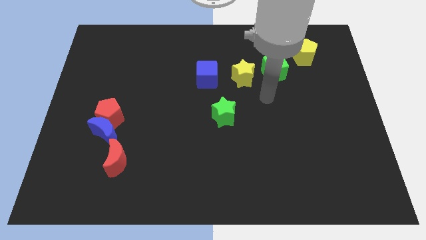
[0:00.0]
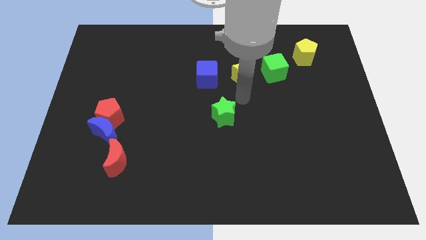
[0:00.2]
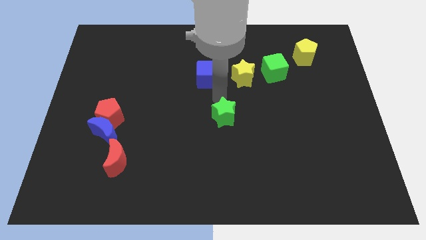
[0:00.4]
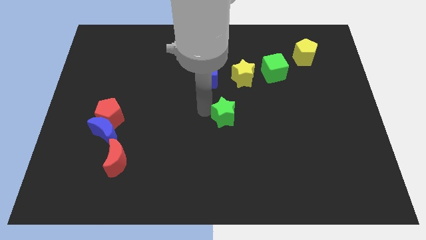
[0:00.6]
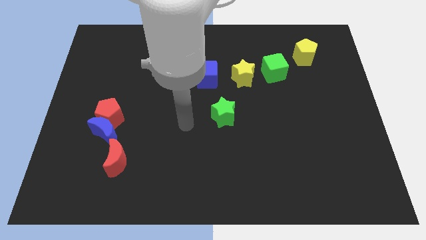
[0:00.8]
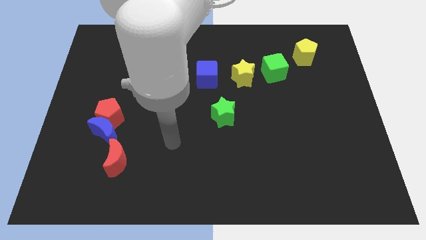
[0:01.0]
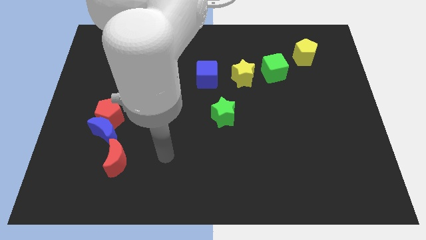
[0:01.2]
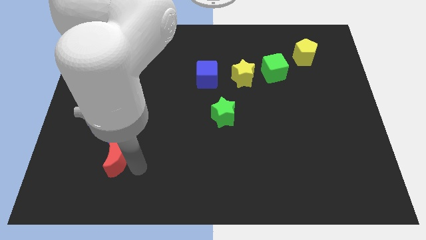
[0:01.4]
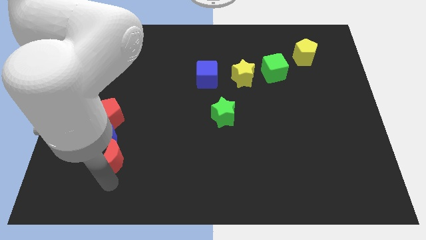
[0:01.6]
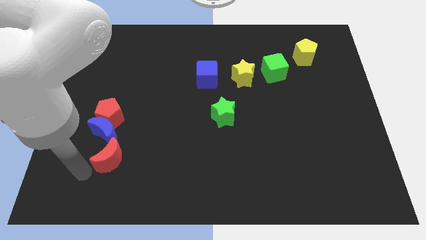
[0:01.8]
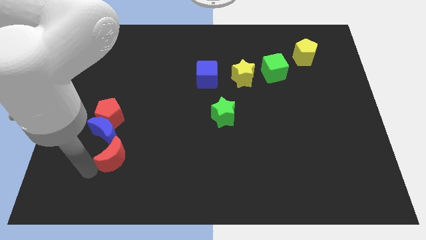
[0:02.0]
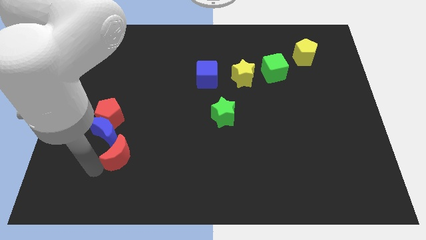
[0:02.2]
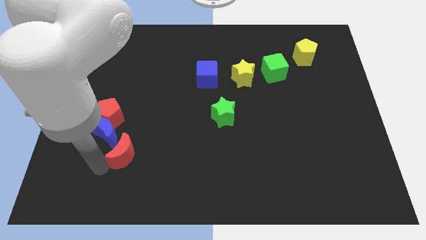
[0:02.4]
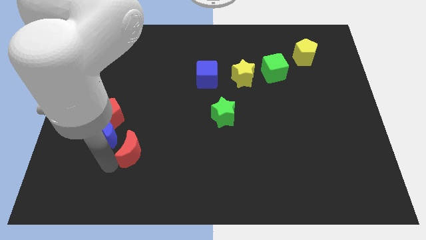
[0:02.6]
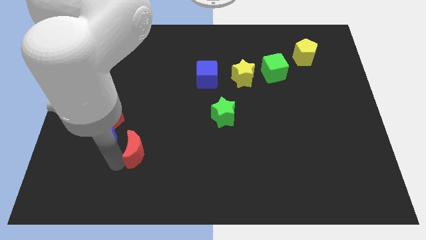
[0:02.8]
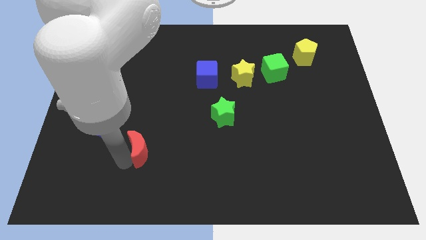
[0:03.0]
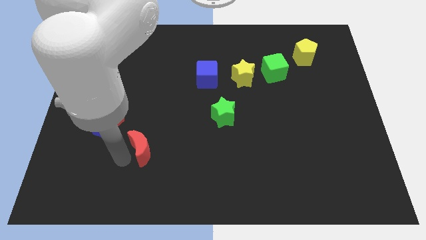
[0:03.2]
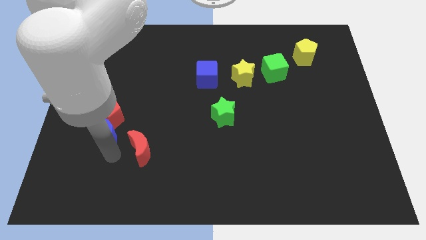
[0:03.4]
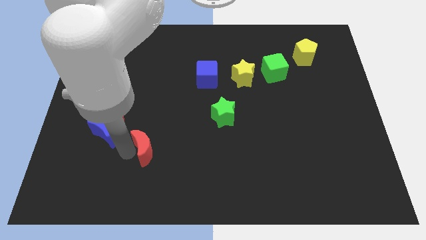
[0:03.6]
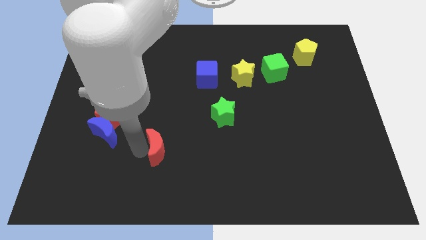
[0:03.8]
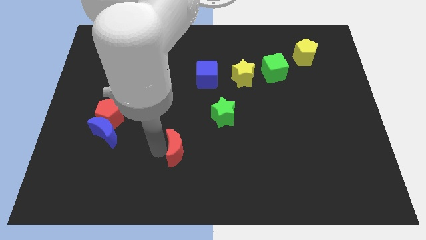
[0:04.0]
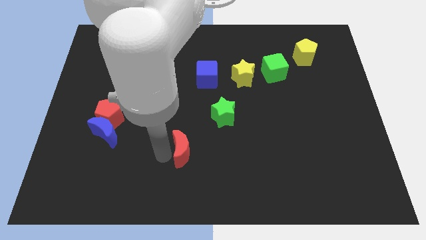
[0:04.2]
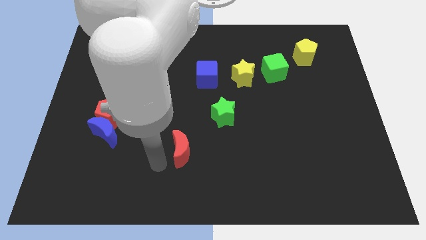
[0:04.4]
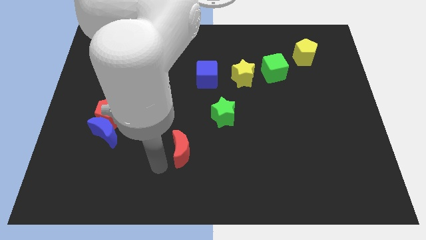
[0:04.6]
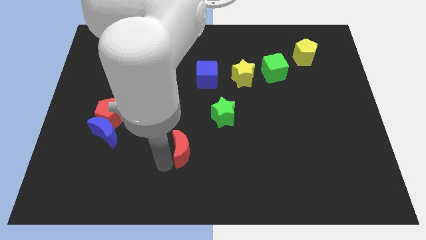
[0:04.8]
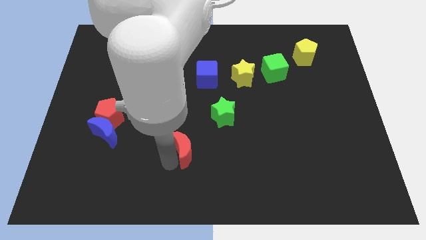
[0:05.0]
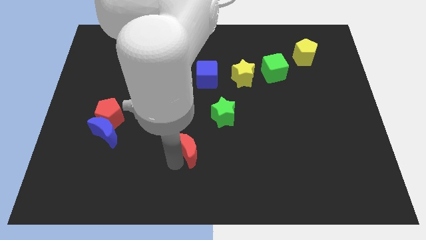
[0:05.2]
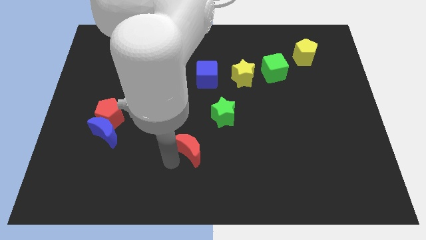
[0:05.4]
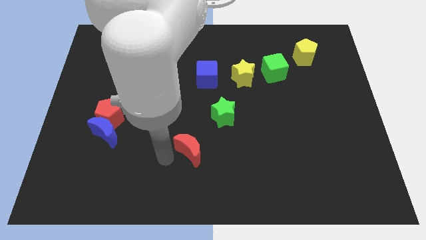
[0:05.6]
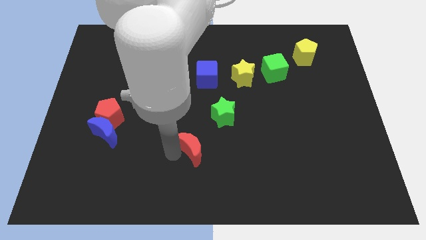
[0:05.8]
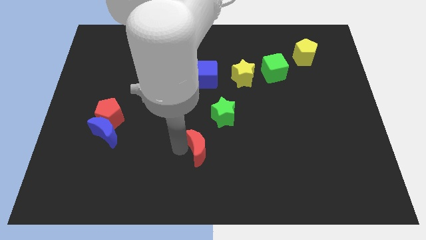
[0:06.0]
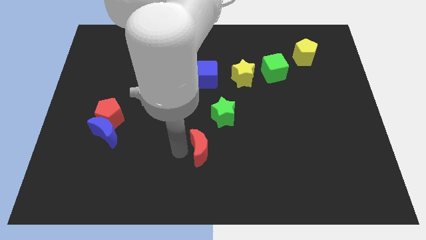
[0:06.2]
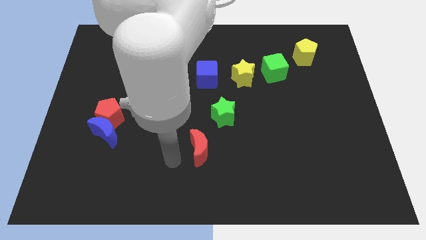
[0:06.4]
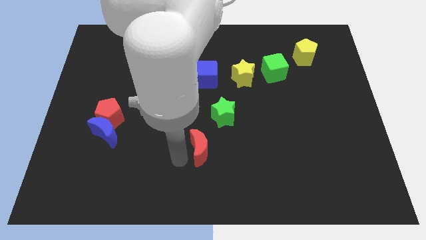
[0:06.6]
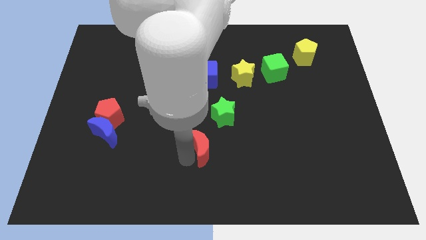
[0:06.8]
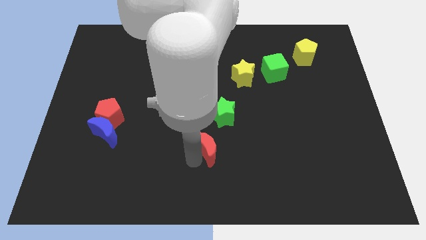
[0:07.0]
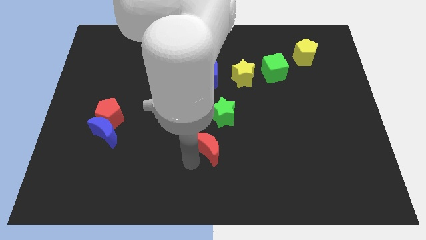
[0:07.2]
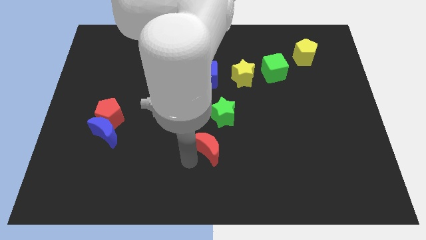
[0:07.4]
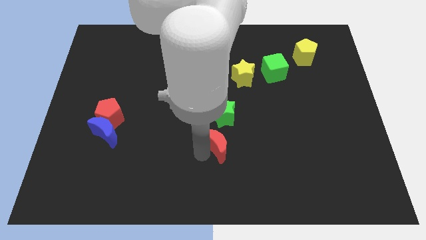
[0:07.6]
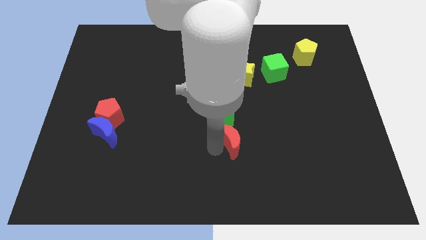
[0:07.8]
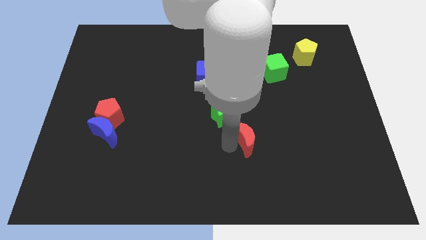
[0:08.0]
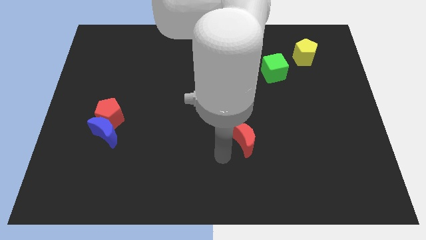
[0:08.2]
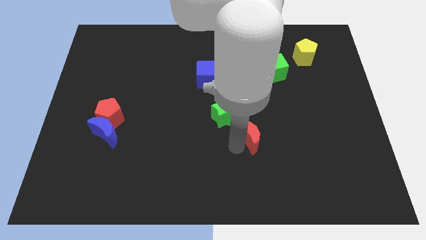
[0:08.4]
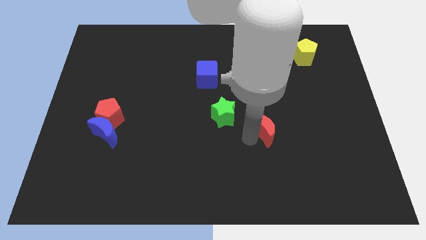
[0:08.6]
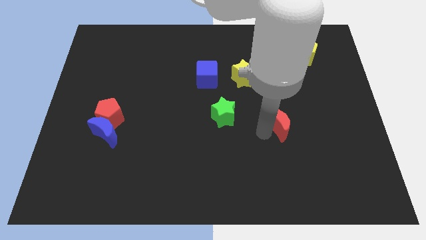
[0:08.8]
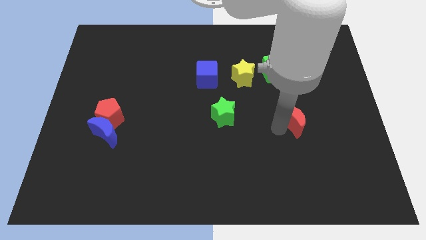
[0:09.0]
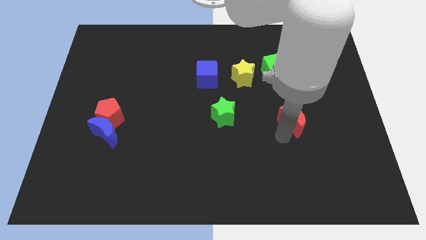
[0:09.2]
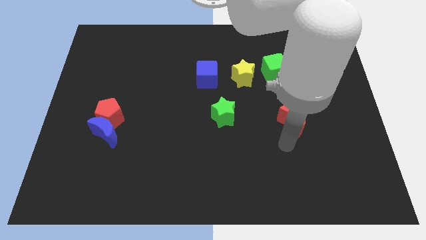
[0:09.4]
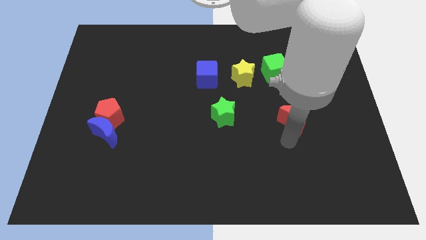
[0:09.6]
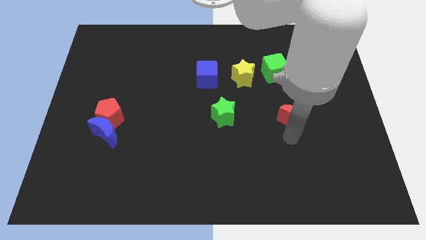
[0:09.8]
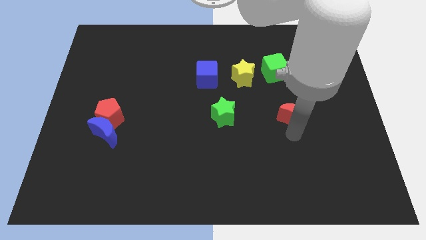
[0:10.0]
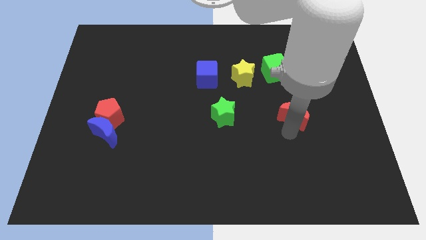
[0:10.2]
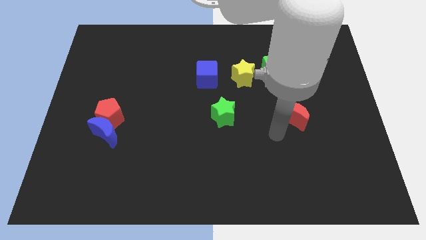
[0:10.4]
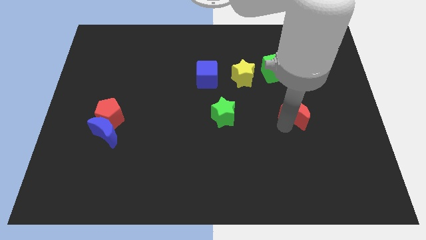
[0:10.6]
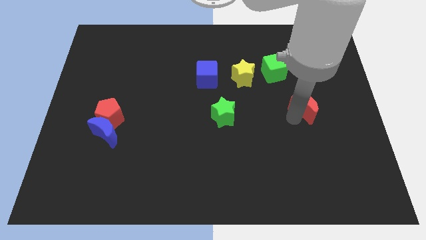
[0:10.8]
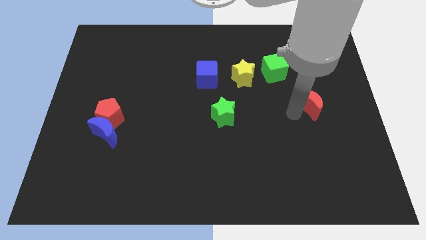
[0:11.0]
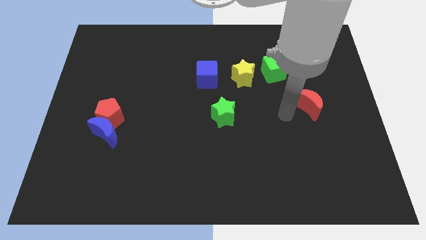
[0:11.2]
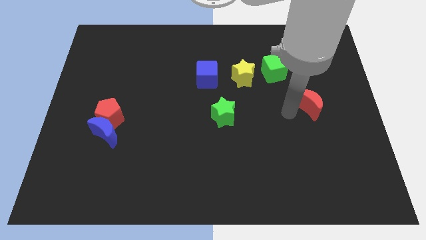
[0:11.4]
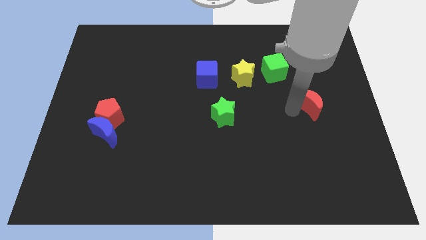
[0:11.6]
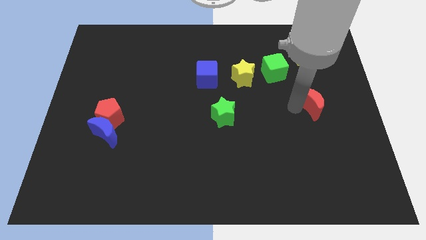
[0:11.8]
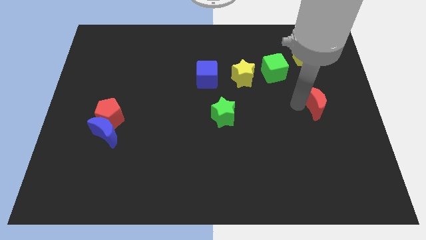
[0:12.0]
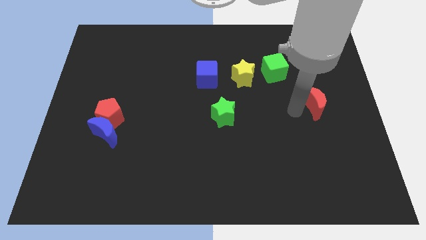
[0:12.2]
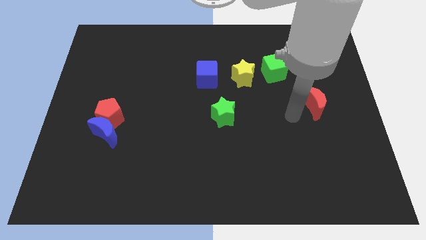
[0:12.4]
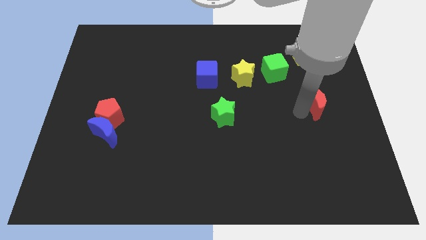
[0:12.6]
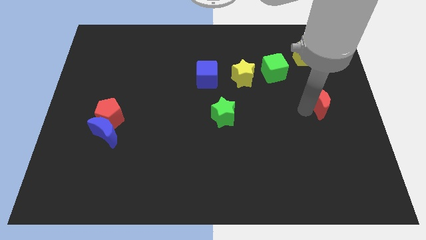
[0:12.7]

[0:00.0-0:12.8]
move the red moon to the right side of the board

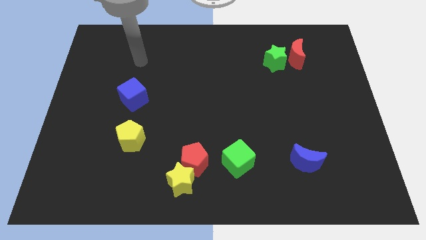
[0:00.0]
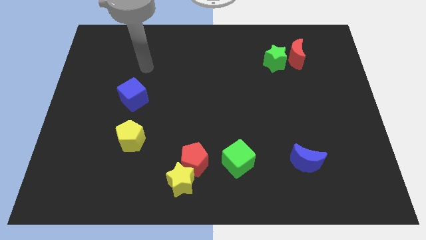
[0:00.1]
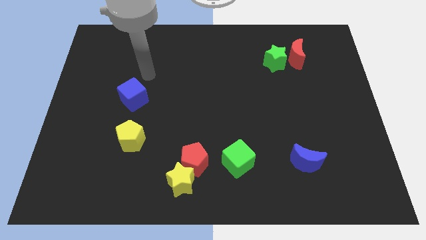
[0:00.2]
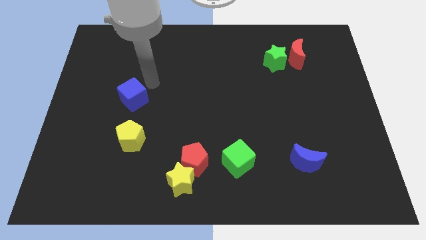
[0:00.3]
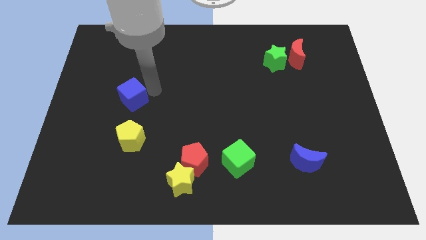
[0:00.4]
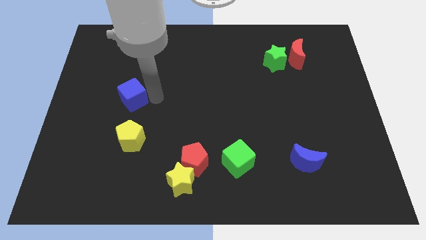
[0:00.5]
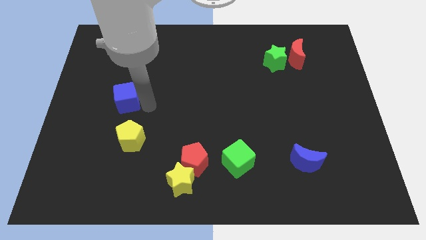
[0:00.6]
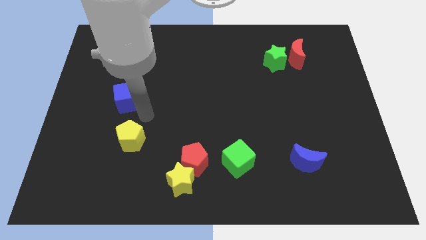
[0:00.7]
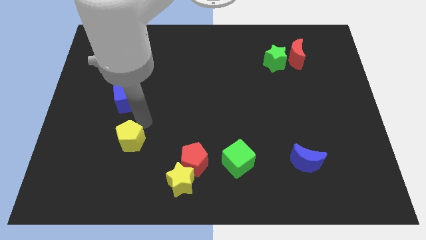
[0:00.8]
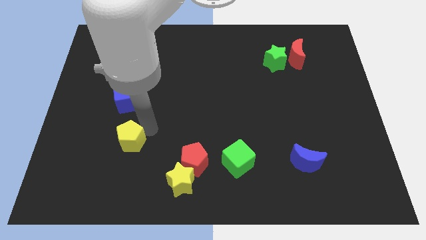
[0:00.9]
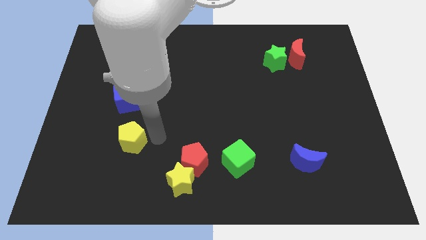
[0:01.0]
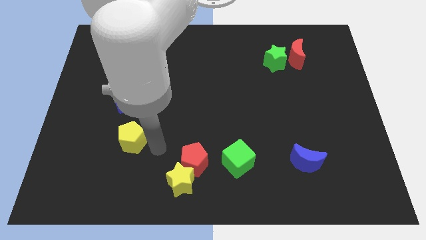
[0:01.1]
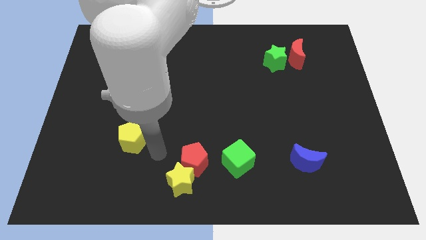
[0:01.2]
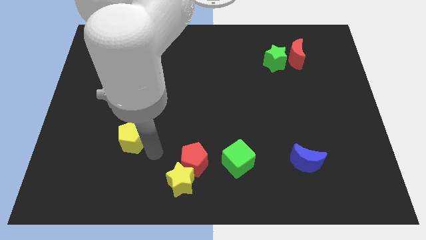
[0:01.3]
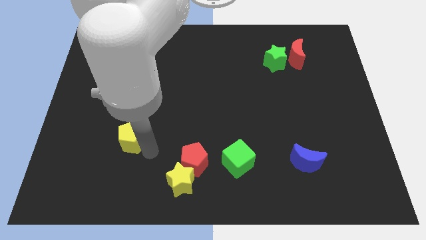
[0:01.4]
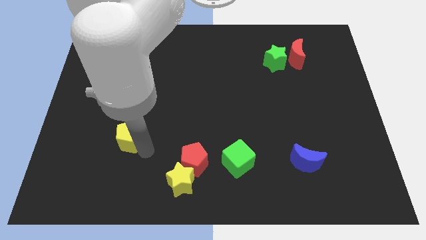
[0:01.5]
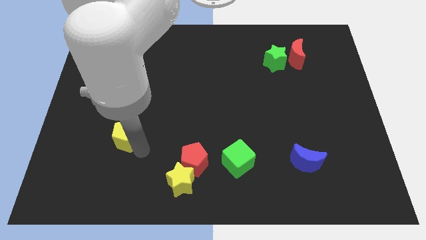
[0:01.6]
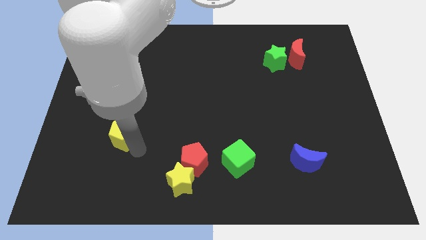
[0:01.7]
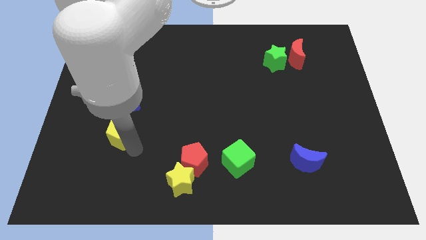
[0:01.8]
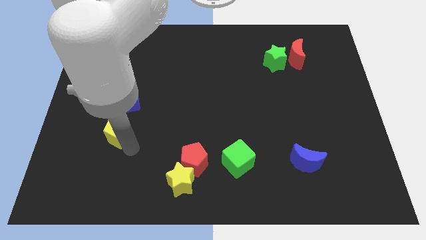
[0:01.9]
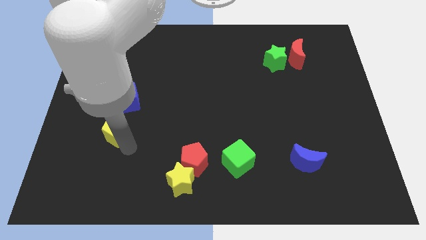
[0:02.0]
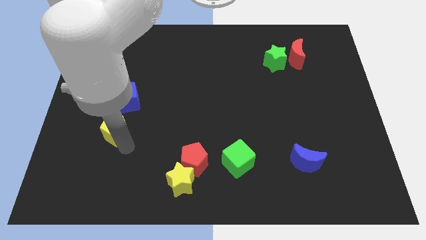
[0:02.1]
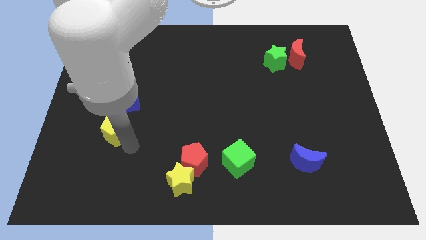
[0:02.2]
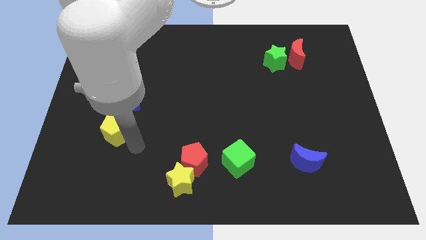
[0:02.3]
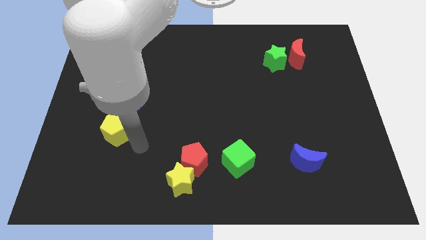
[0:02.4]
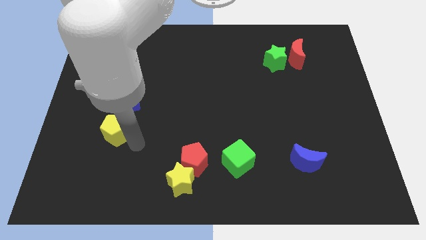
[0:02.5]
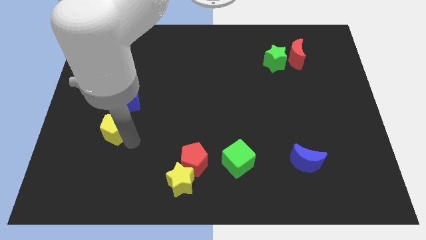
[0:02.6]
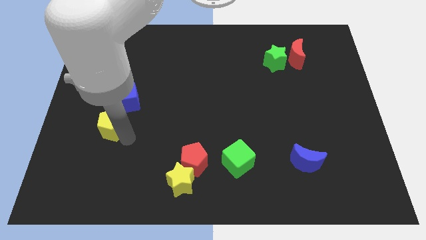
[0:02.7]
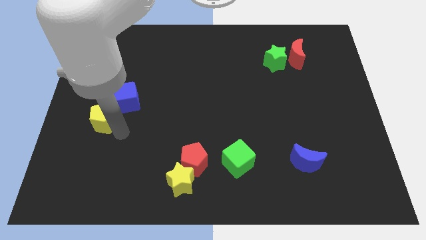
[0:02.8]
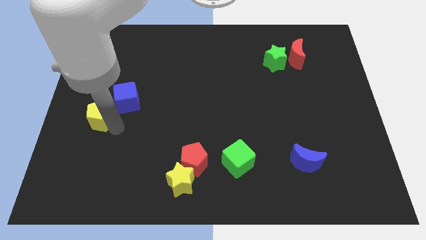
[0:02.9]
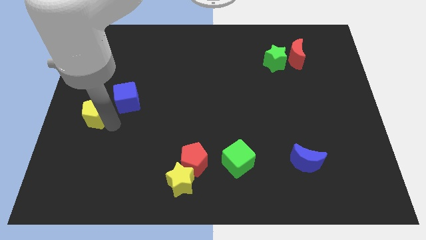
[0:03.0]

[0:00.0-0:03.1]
push the yellow pentagon to the center left
